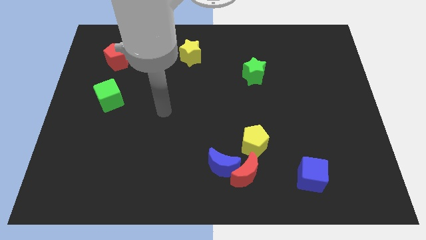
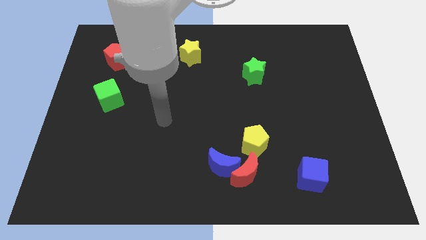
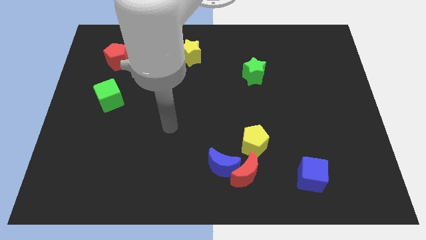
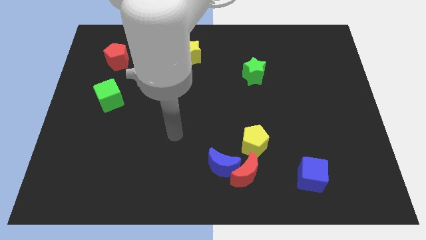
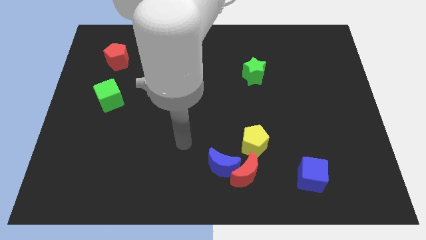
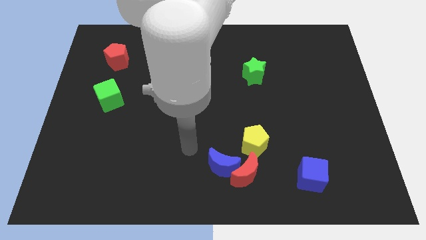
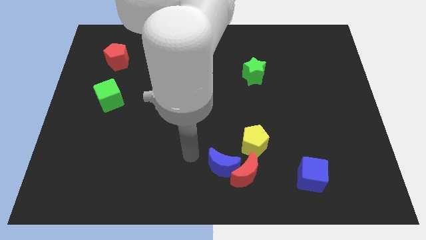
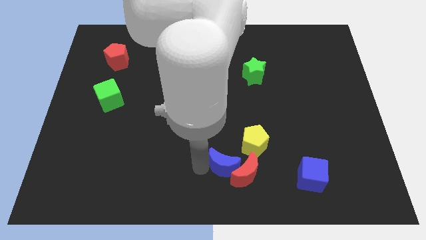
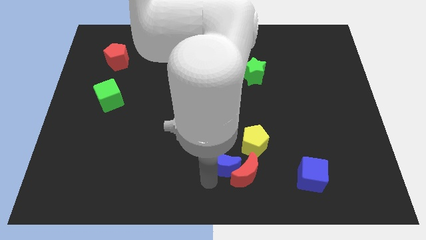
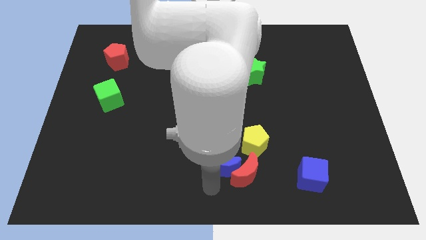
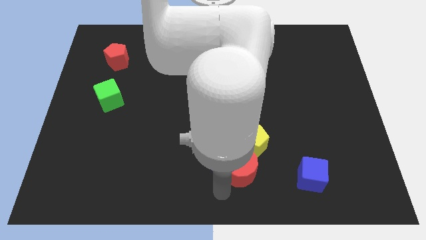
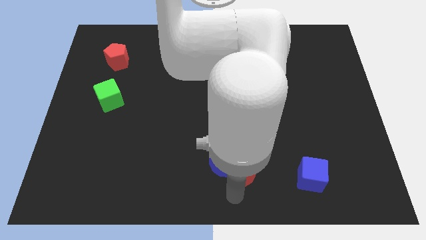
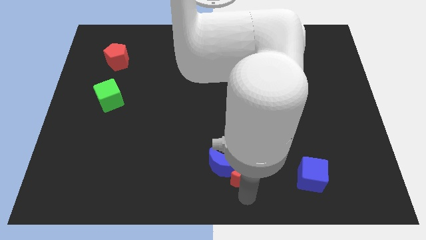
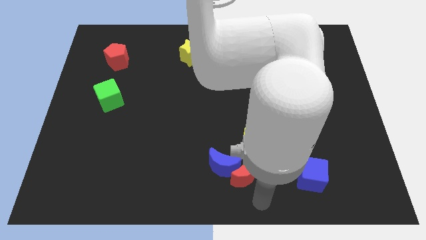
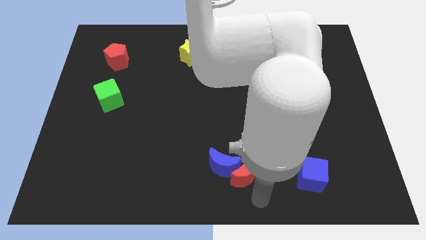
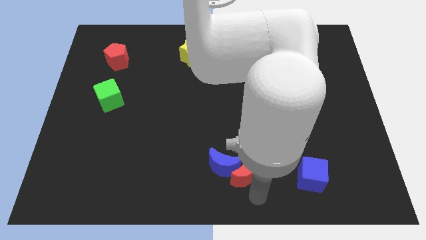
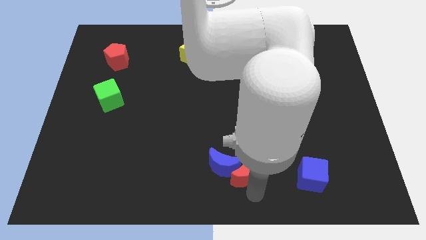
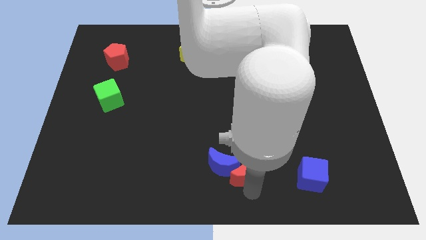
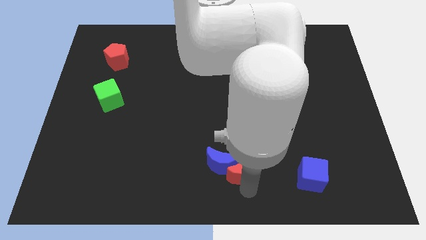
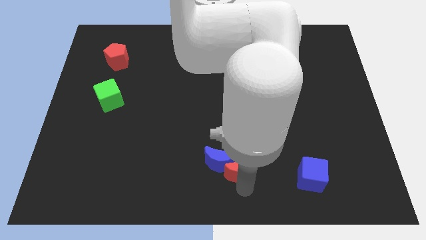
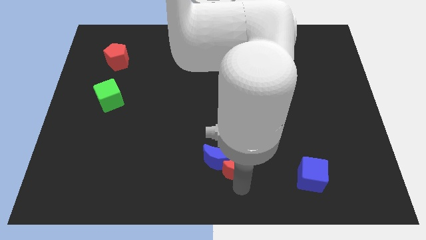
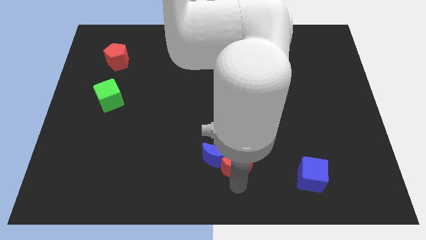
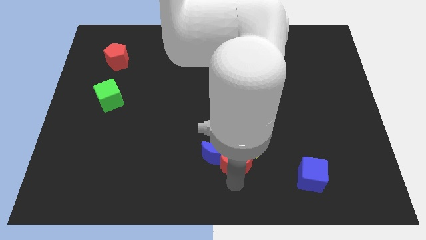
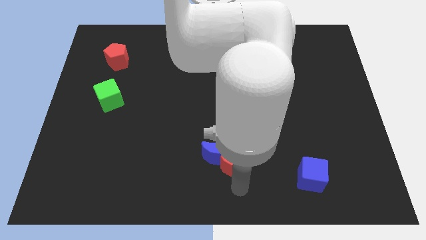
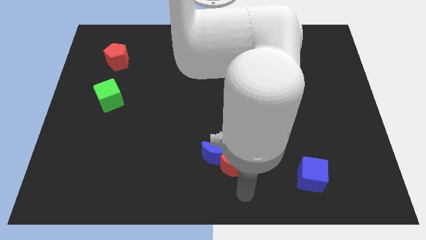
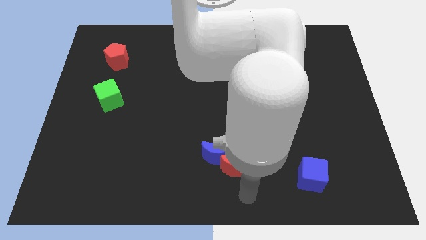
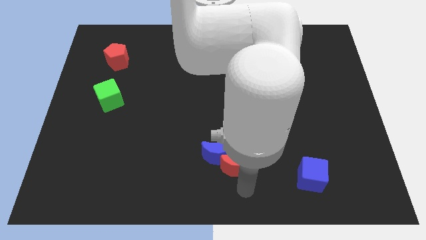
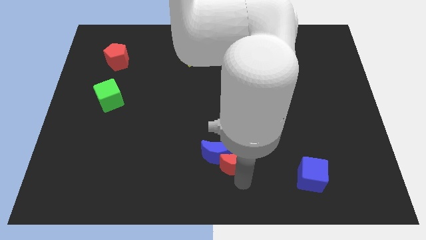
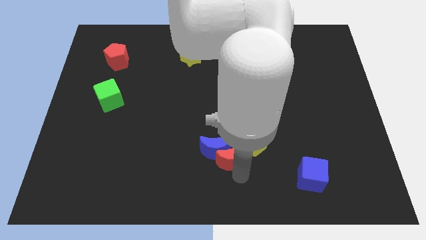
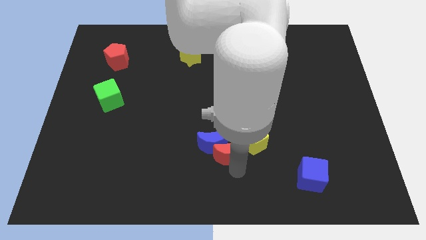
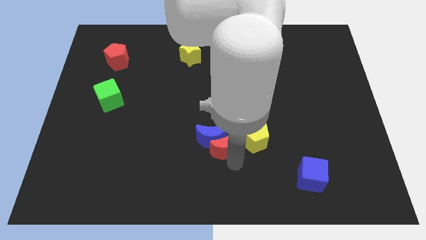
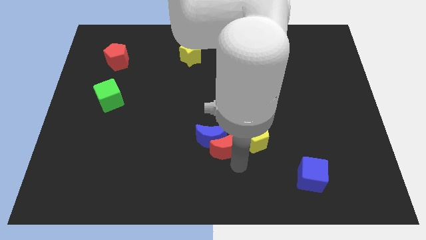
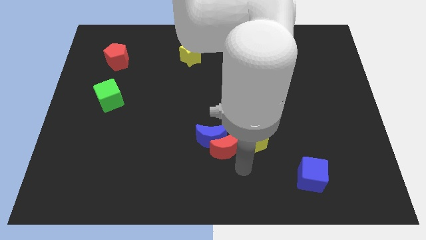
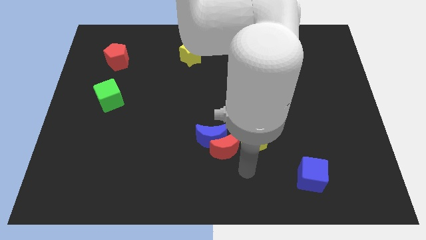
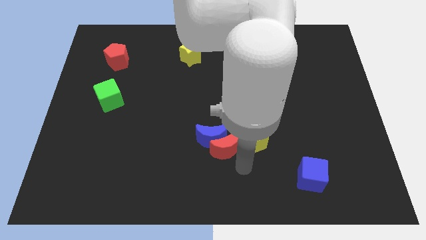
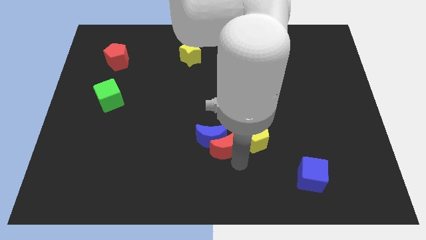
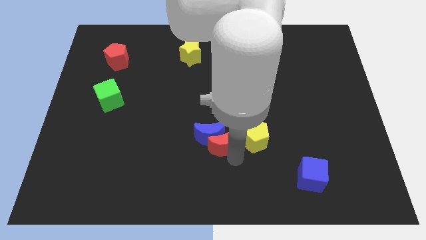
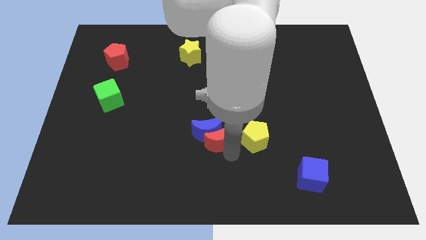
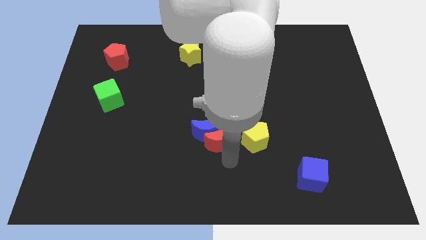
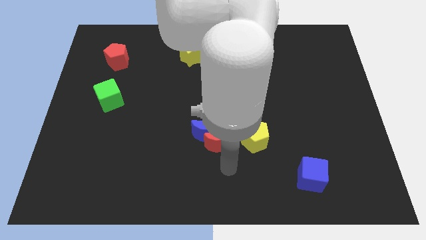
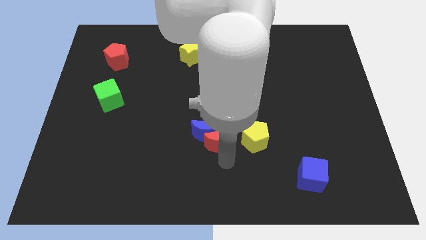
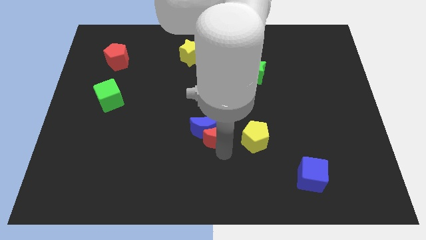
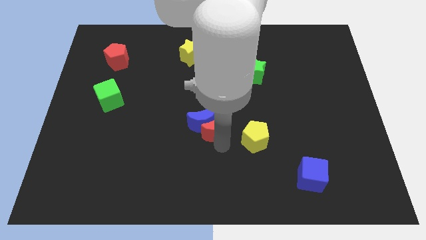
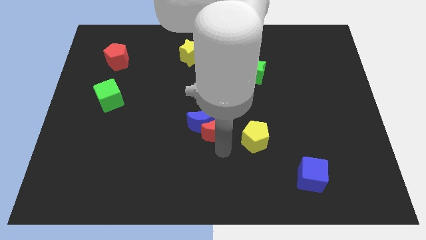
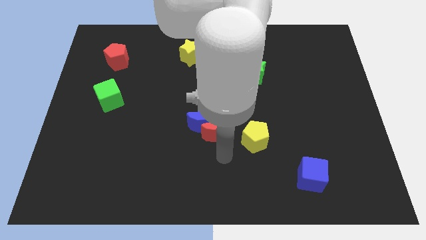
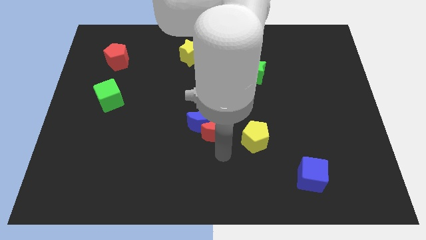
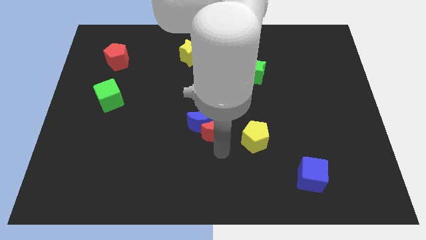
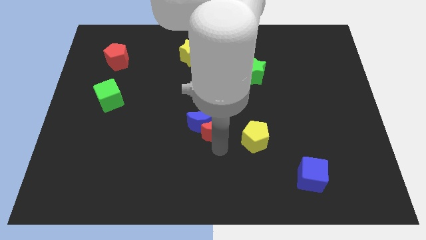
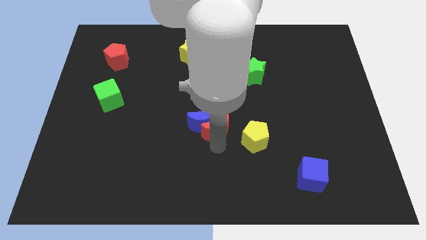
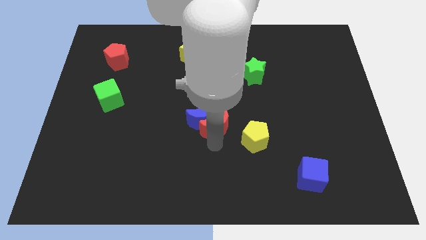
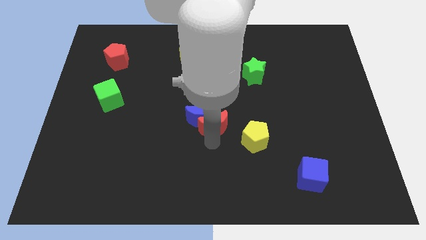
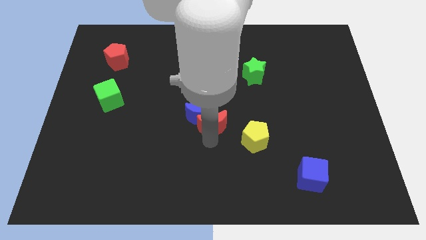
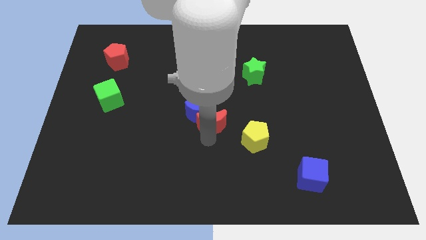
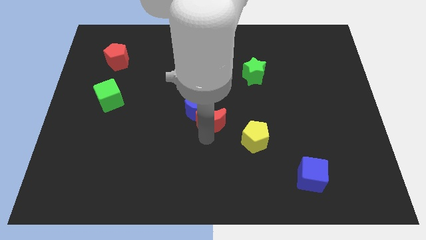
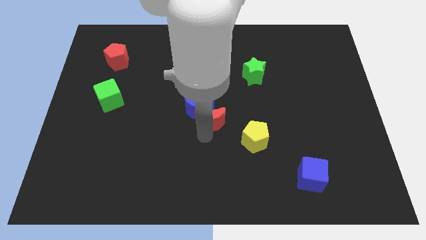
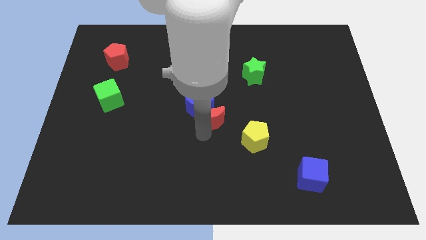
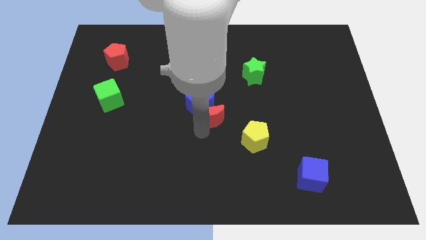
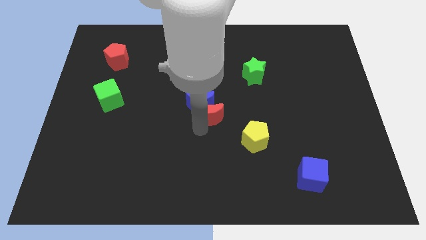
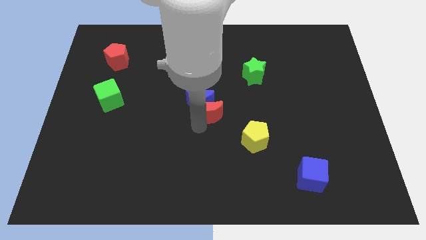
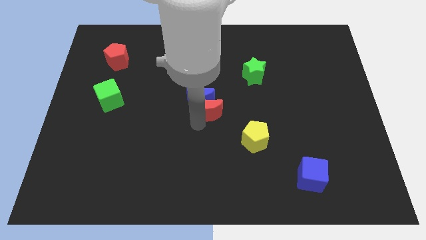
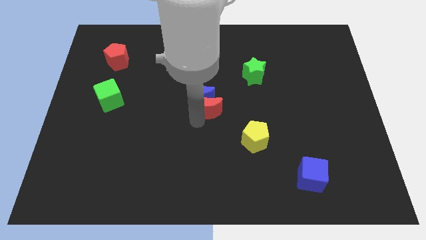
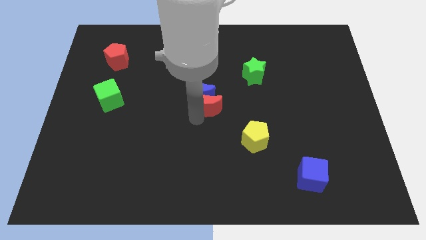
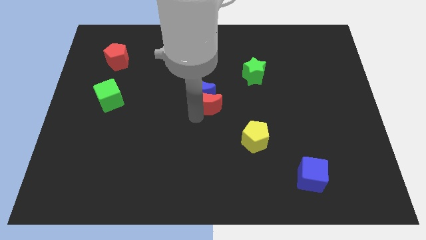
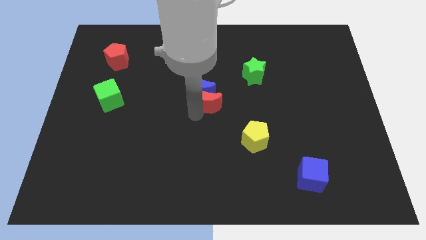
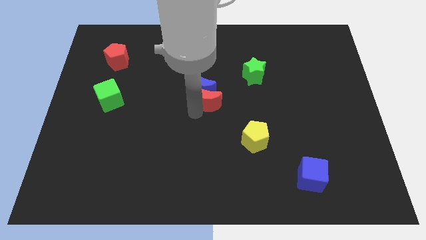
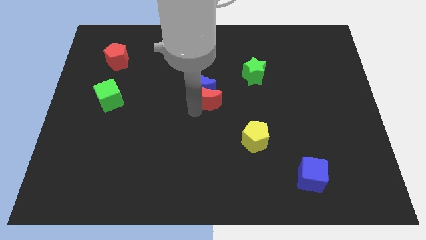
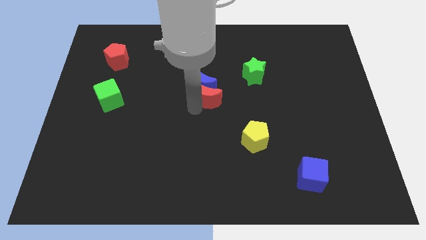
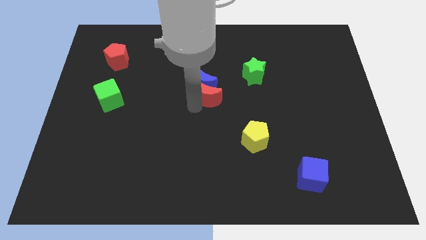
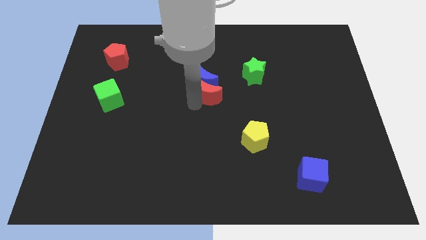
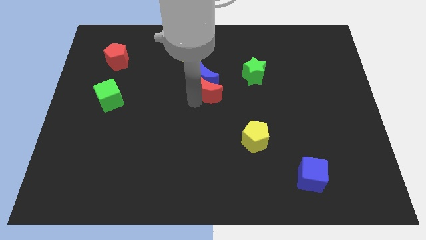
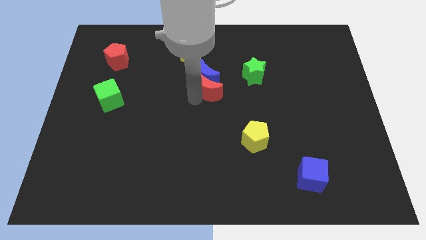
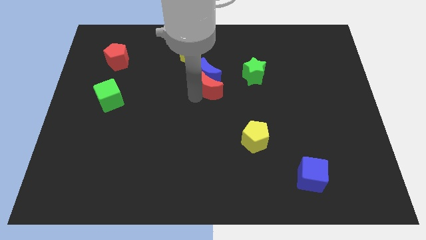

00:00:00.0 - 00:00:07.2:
move the red moon upwards

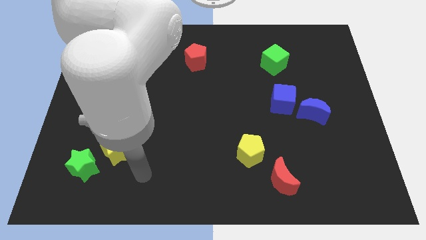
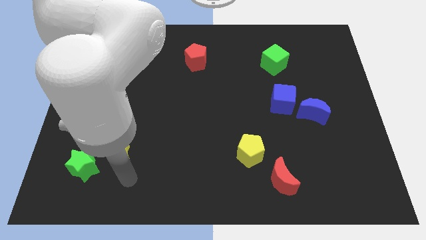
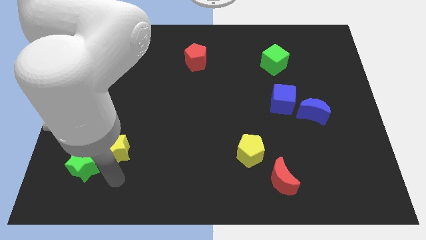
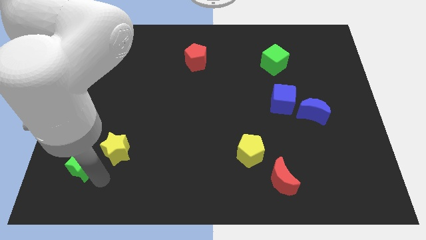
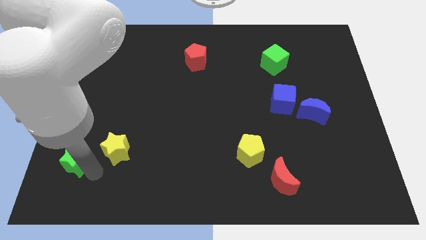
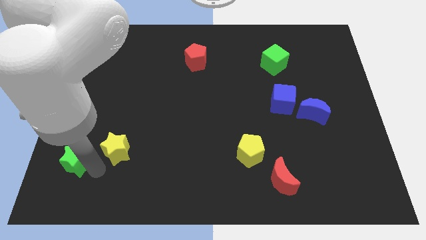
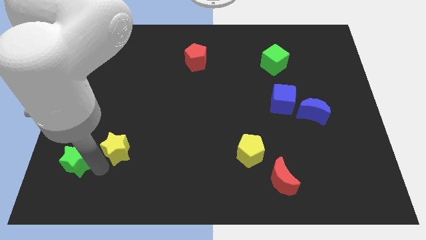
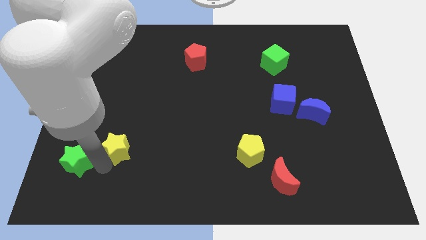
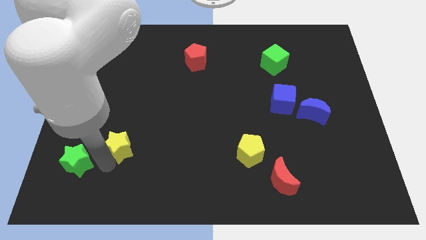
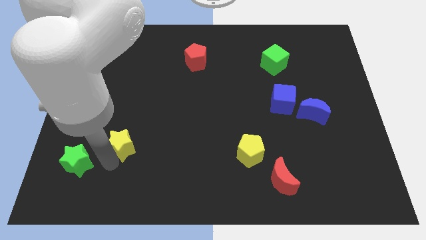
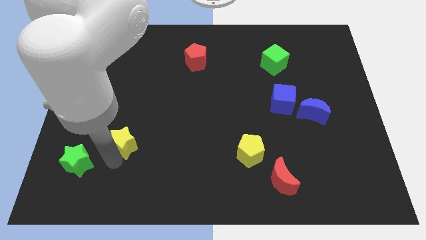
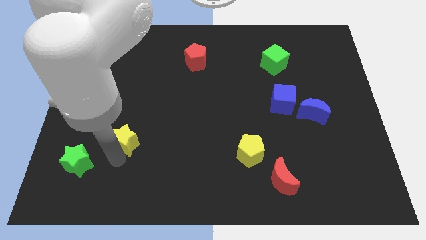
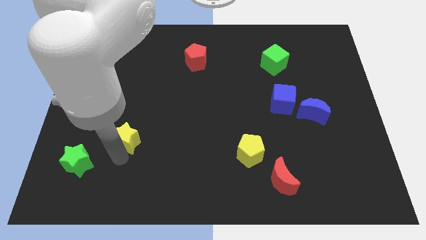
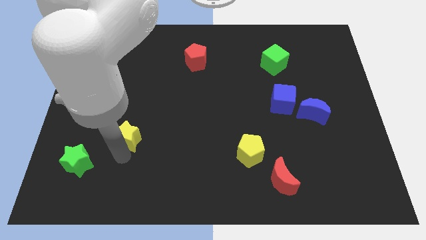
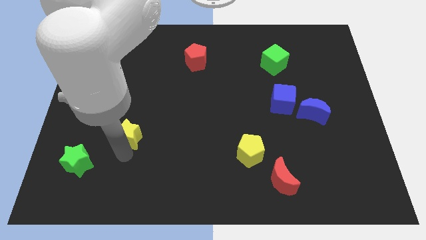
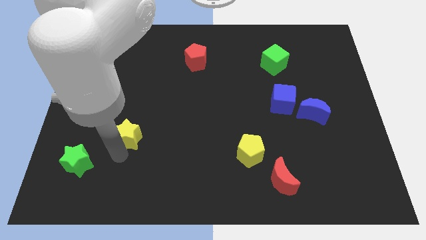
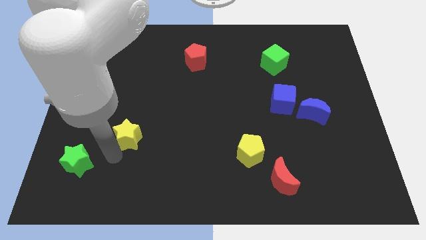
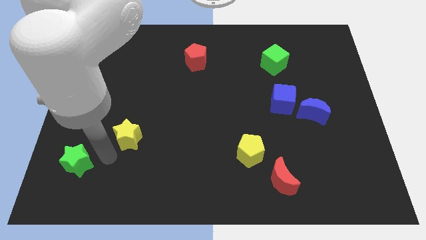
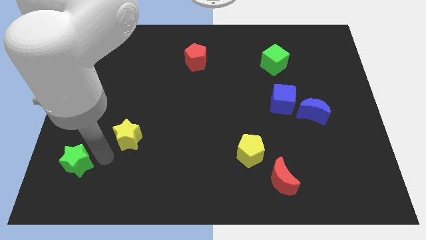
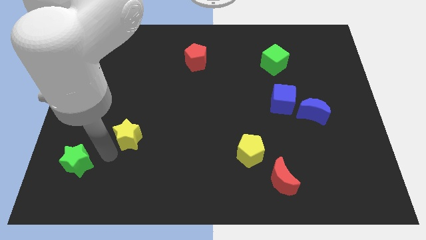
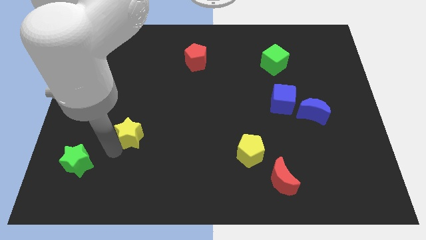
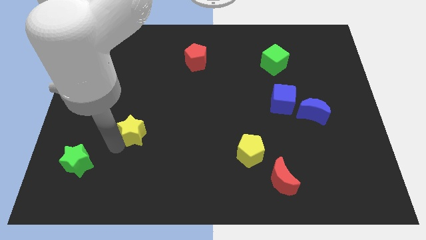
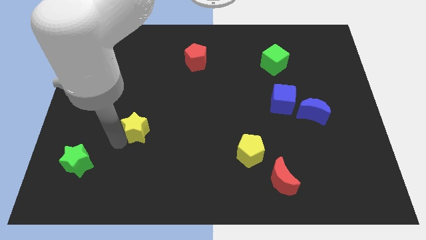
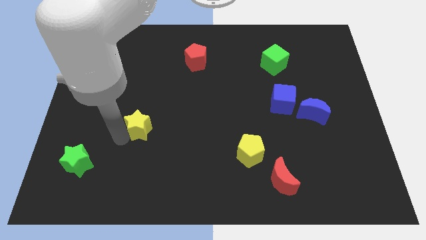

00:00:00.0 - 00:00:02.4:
push the yellow star a bit upwards and right
